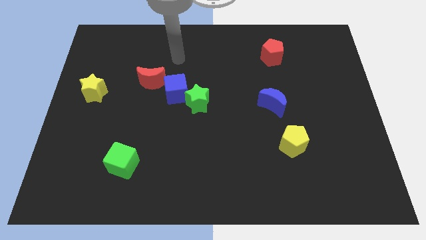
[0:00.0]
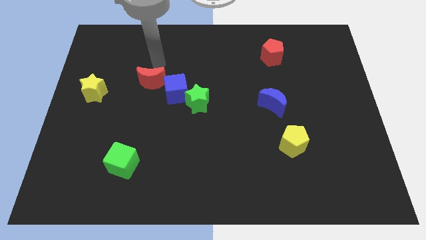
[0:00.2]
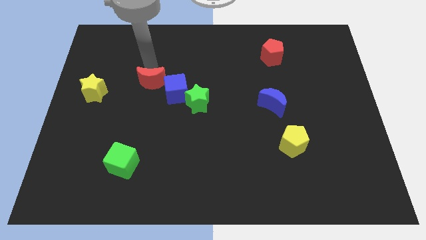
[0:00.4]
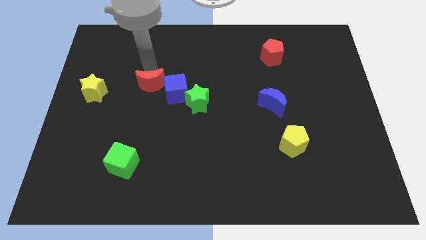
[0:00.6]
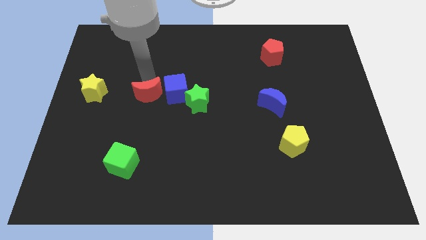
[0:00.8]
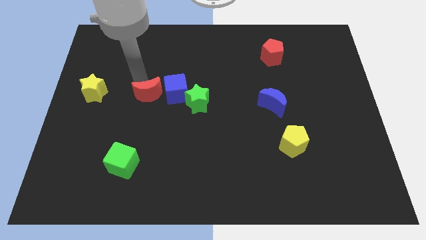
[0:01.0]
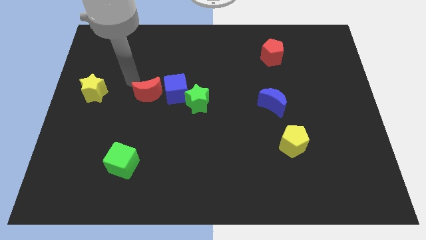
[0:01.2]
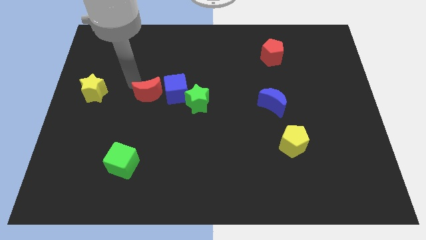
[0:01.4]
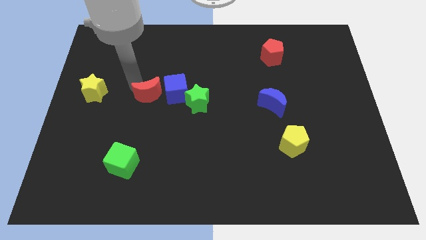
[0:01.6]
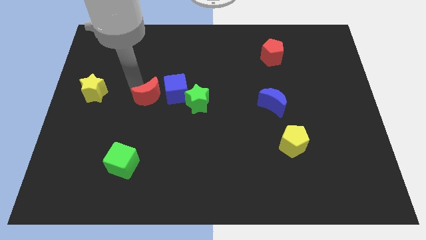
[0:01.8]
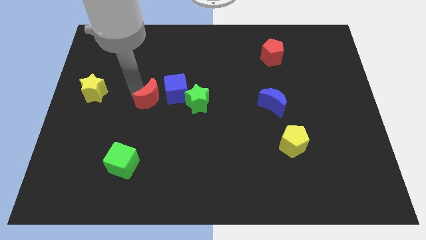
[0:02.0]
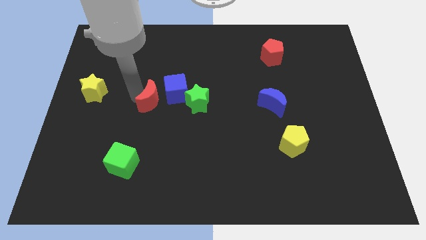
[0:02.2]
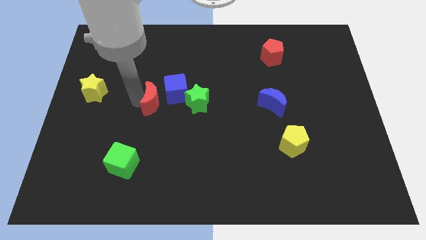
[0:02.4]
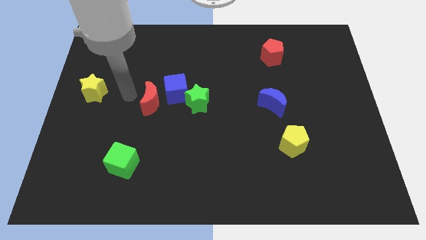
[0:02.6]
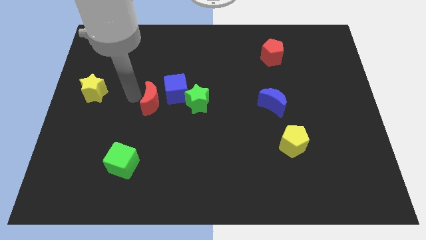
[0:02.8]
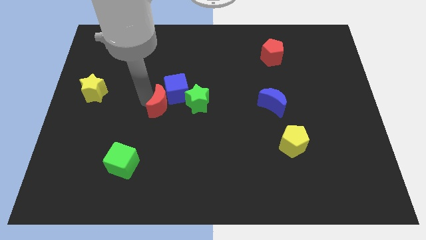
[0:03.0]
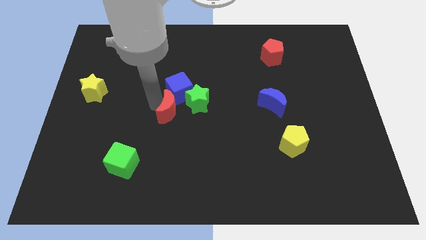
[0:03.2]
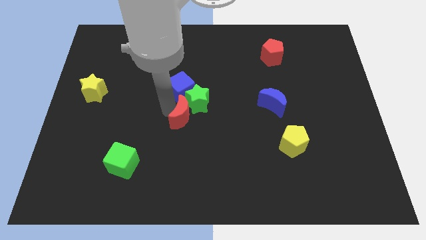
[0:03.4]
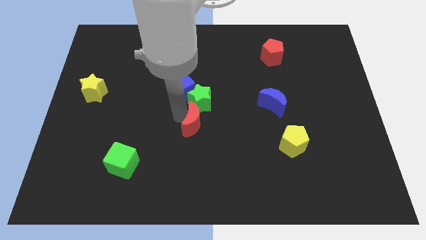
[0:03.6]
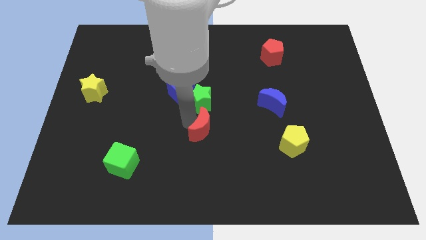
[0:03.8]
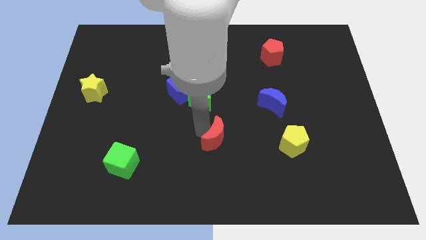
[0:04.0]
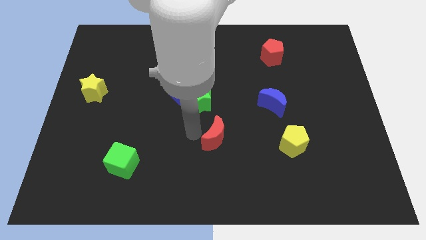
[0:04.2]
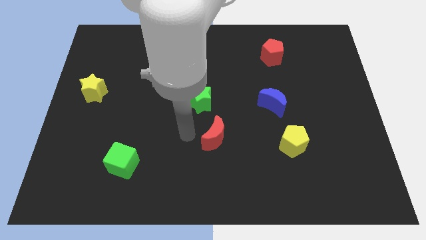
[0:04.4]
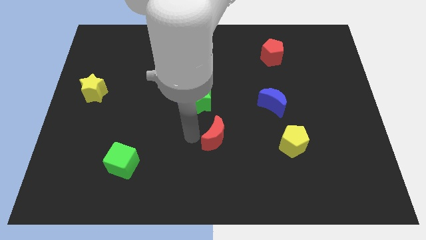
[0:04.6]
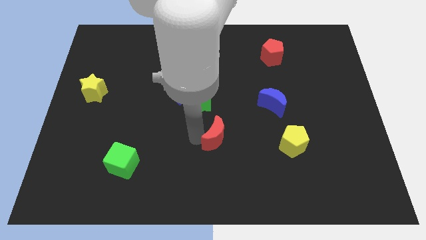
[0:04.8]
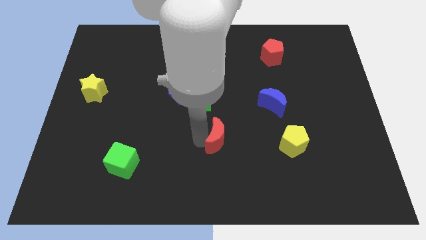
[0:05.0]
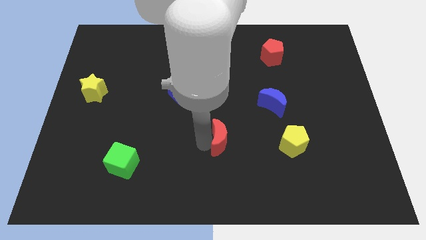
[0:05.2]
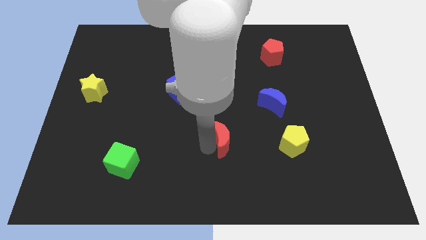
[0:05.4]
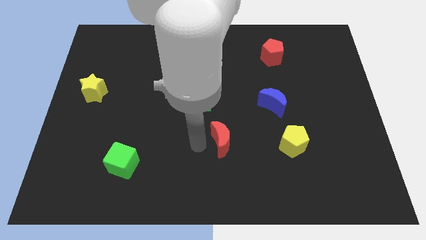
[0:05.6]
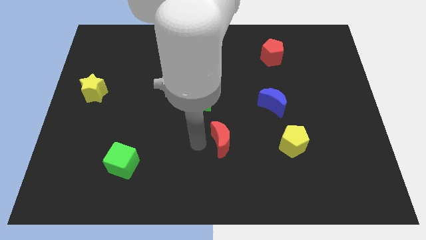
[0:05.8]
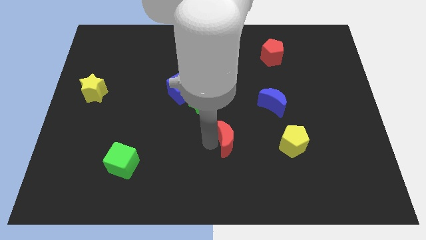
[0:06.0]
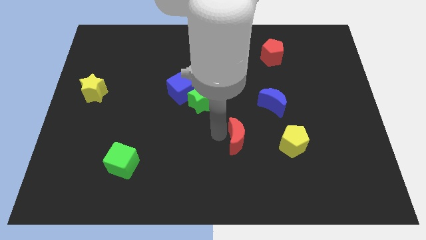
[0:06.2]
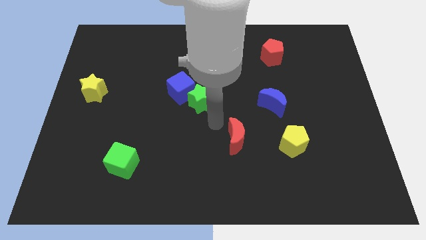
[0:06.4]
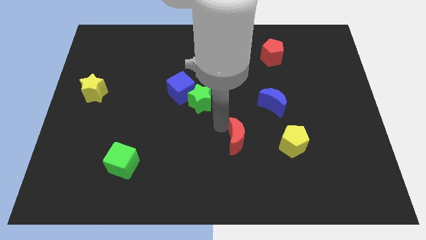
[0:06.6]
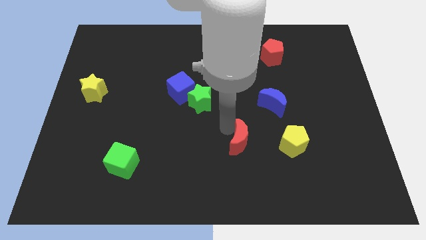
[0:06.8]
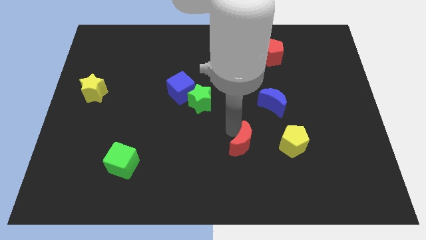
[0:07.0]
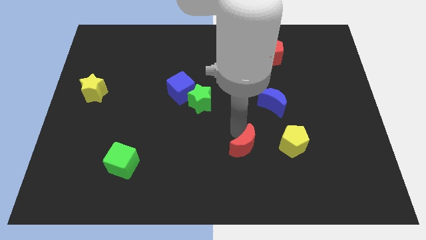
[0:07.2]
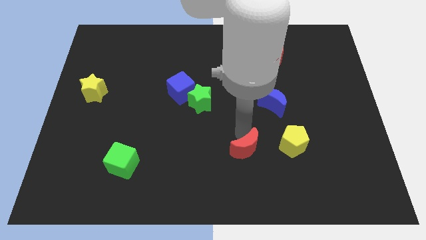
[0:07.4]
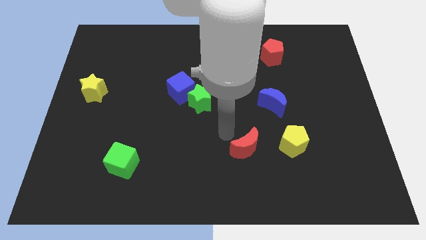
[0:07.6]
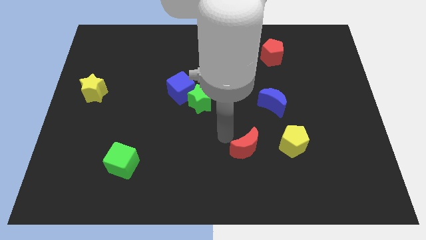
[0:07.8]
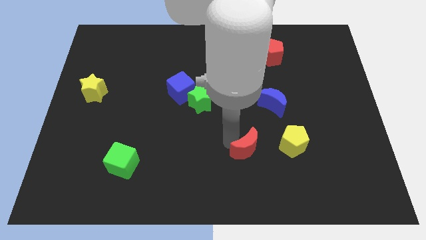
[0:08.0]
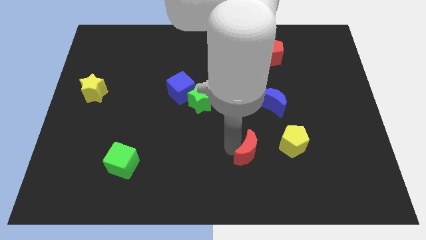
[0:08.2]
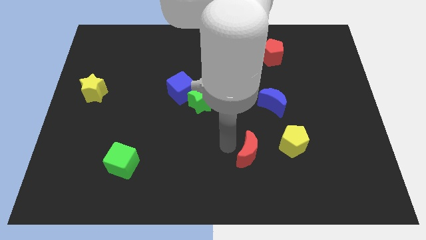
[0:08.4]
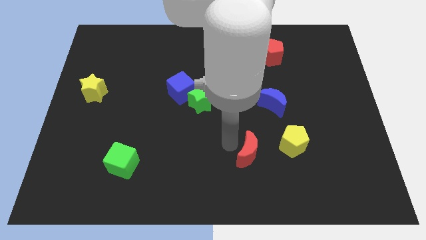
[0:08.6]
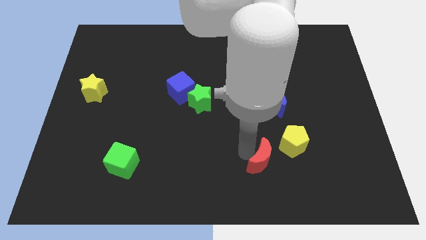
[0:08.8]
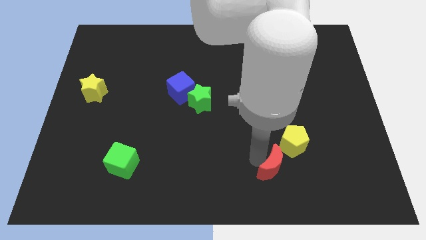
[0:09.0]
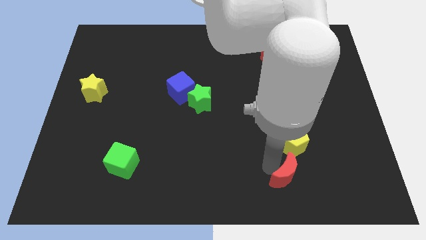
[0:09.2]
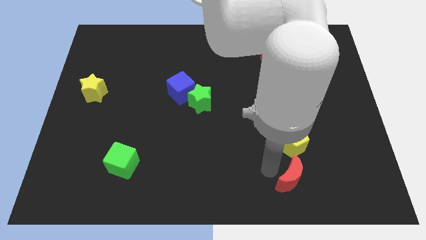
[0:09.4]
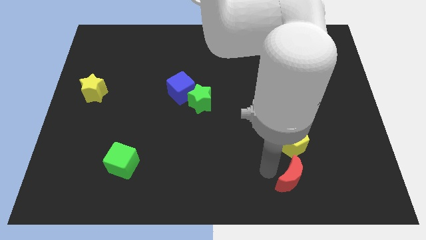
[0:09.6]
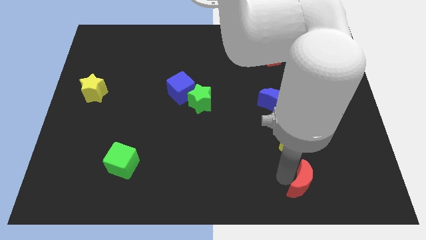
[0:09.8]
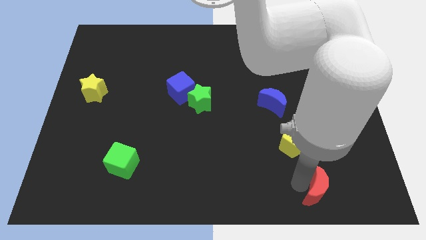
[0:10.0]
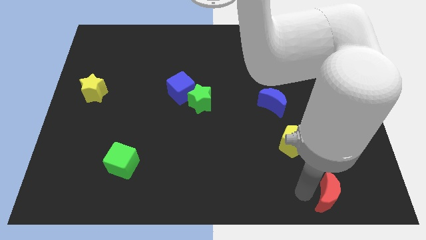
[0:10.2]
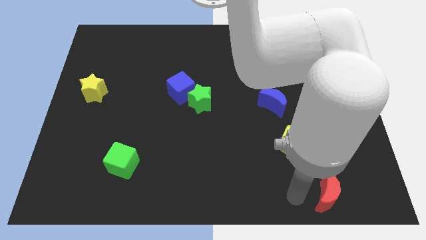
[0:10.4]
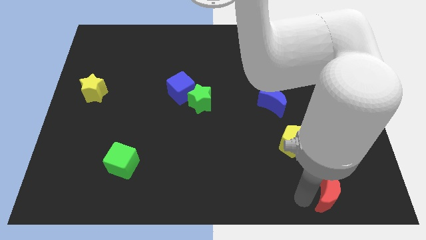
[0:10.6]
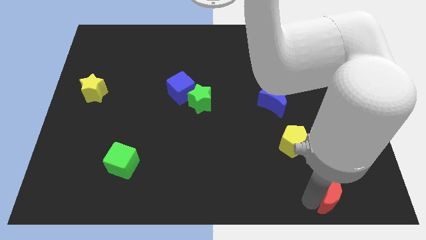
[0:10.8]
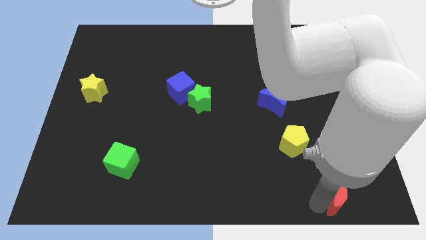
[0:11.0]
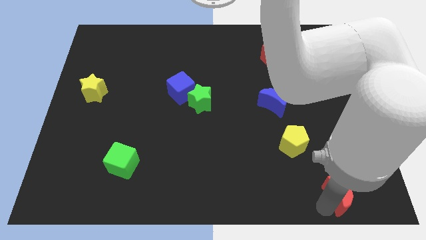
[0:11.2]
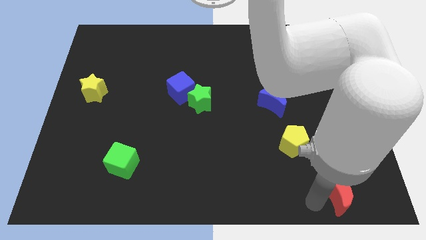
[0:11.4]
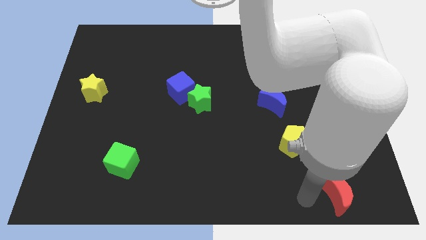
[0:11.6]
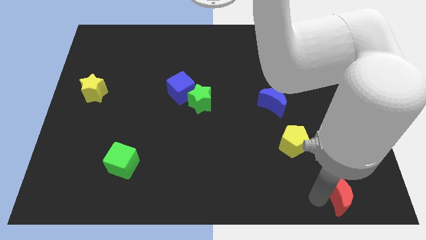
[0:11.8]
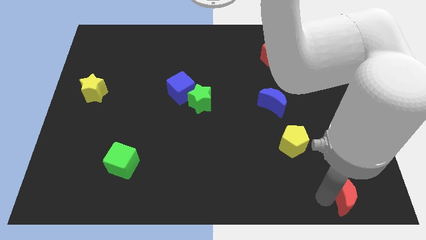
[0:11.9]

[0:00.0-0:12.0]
put the red moon to the lower right corner

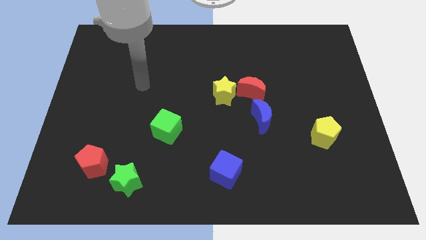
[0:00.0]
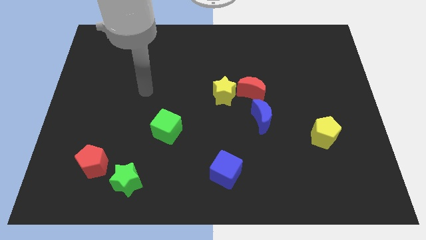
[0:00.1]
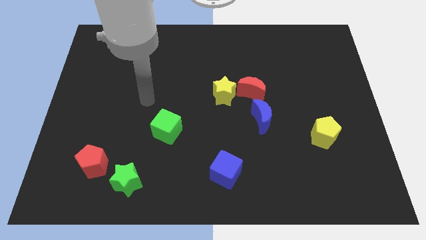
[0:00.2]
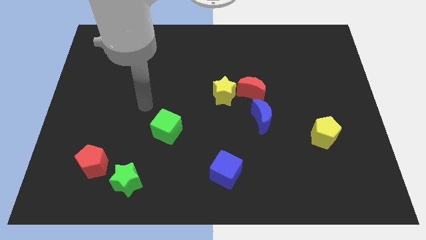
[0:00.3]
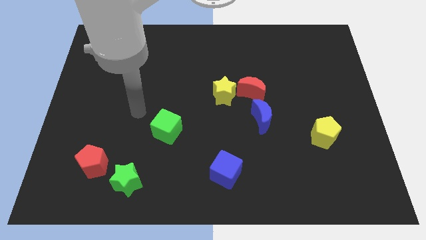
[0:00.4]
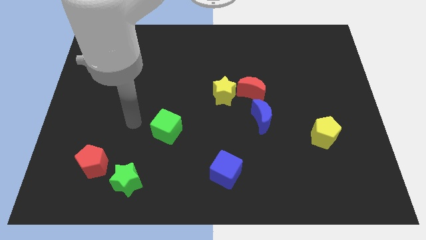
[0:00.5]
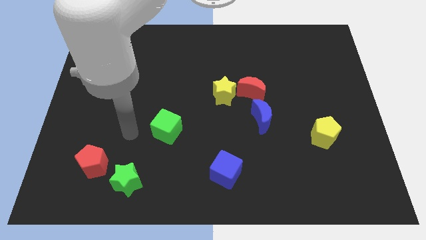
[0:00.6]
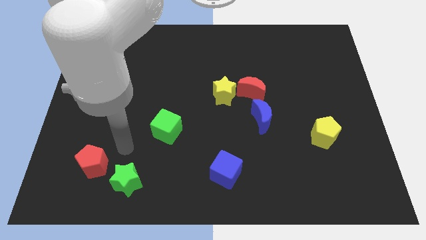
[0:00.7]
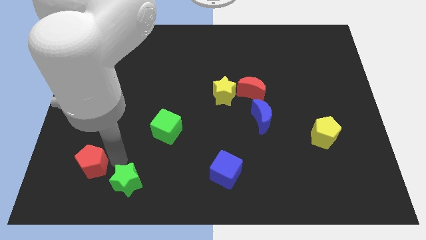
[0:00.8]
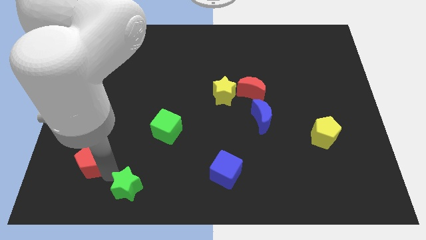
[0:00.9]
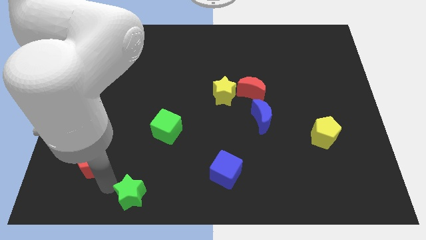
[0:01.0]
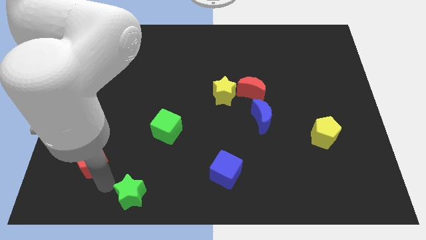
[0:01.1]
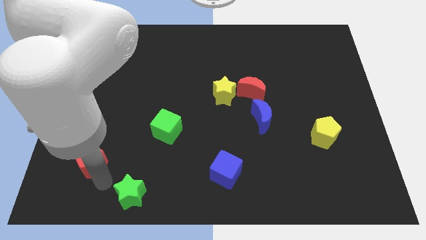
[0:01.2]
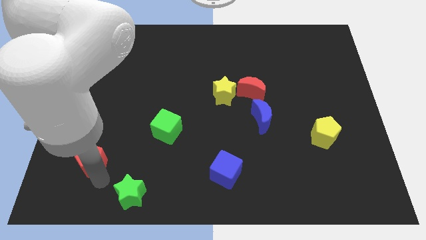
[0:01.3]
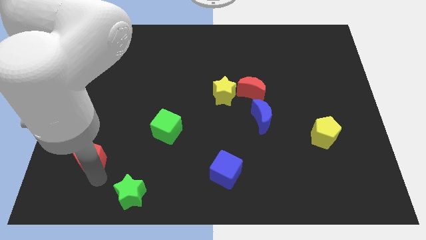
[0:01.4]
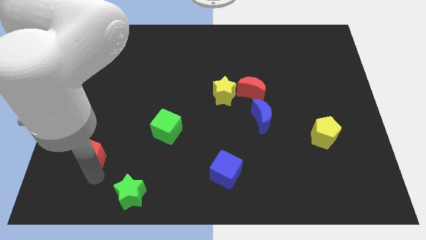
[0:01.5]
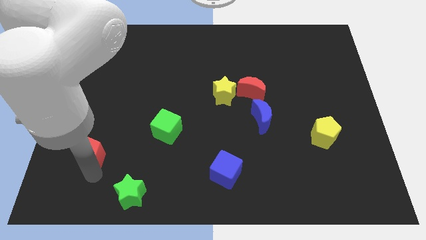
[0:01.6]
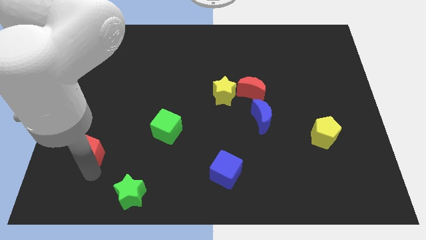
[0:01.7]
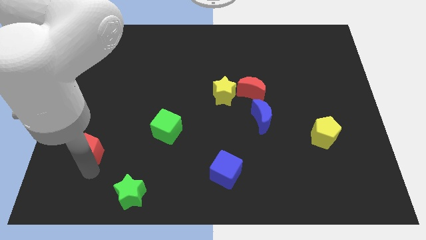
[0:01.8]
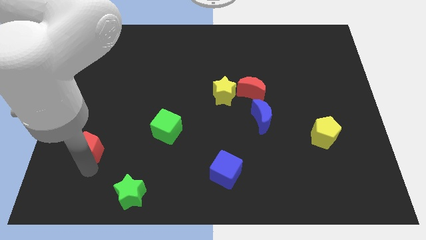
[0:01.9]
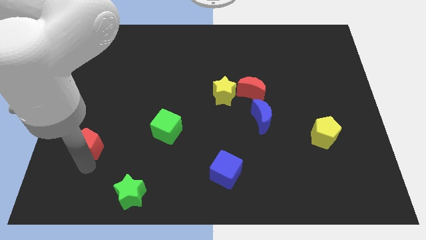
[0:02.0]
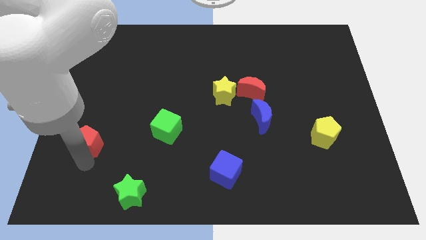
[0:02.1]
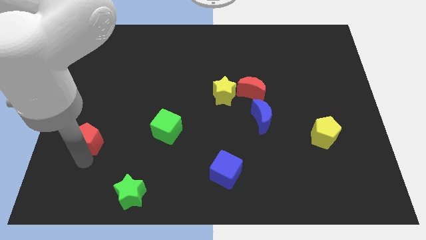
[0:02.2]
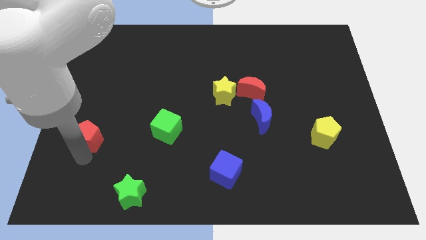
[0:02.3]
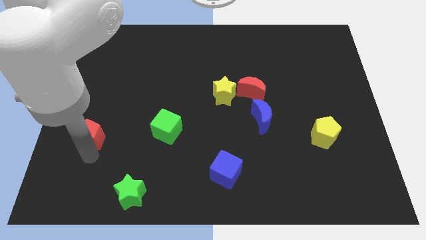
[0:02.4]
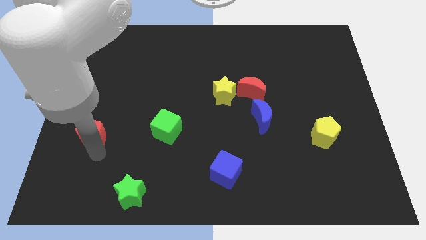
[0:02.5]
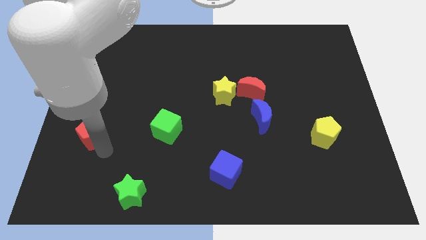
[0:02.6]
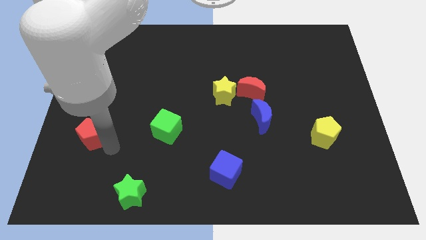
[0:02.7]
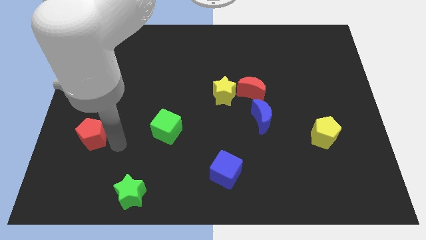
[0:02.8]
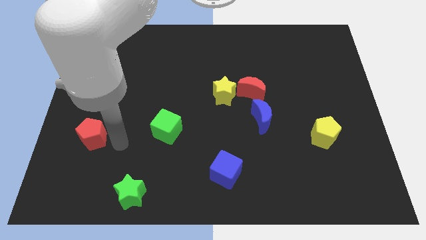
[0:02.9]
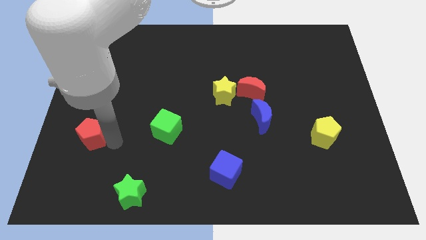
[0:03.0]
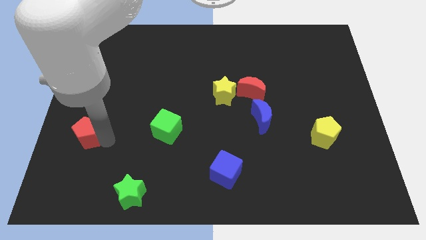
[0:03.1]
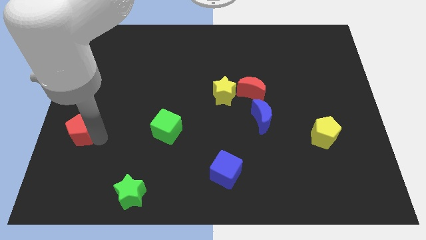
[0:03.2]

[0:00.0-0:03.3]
put the red pentagon to the left side of the board
